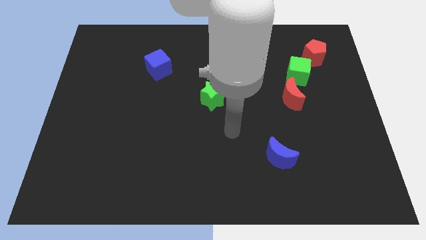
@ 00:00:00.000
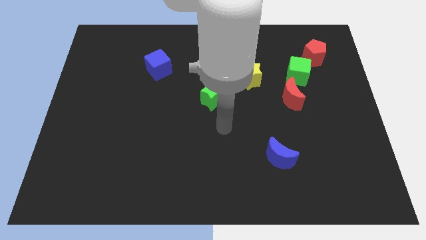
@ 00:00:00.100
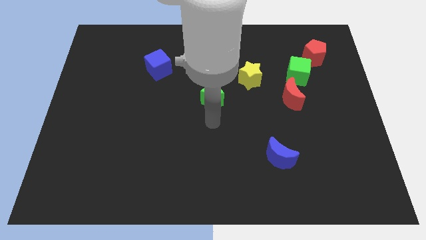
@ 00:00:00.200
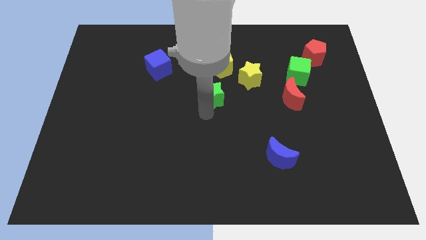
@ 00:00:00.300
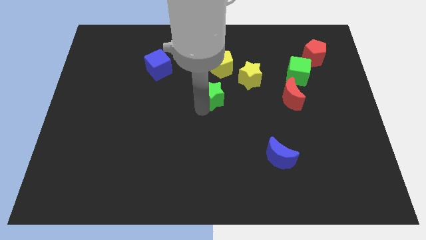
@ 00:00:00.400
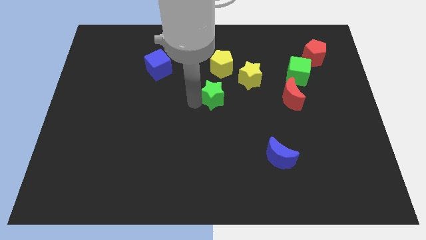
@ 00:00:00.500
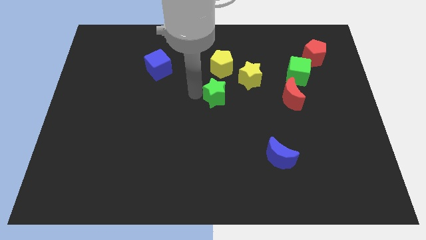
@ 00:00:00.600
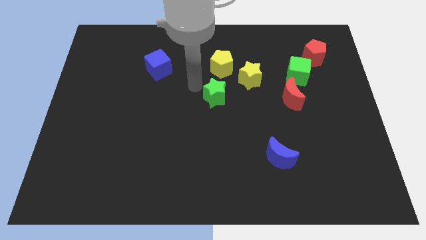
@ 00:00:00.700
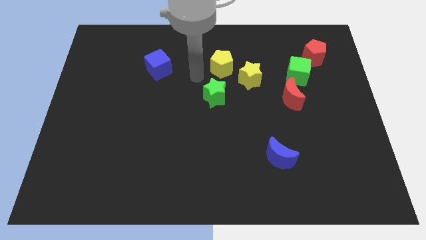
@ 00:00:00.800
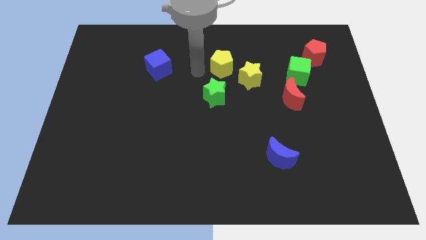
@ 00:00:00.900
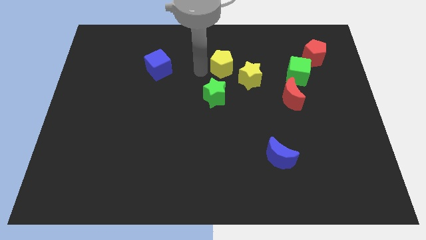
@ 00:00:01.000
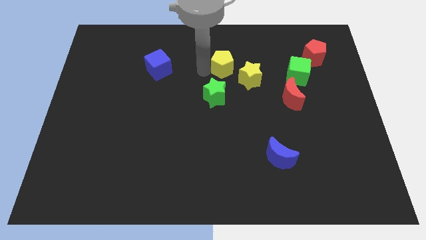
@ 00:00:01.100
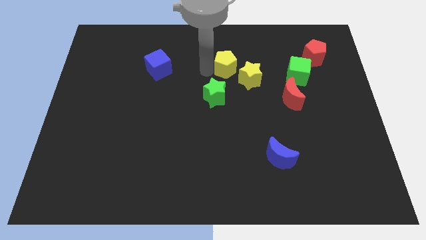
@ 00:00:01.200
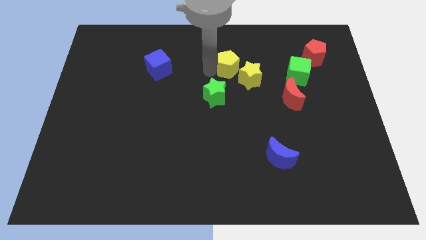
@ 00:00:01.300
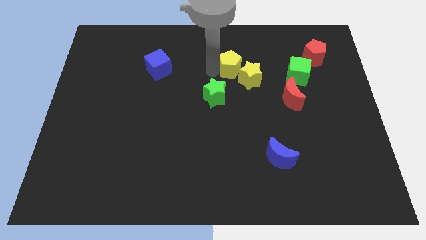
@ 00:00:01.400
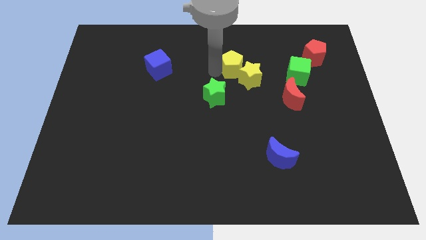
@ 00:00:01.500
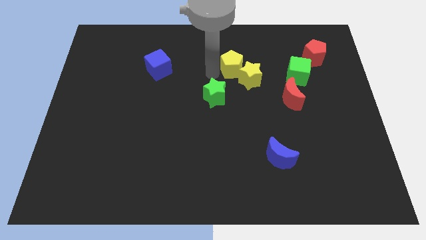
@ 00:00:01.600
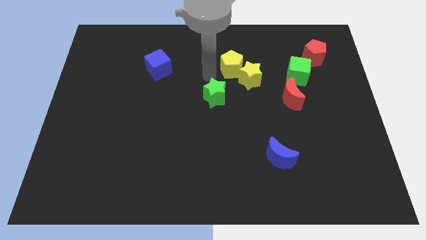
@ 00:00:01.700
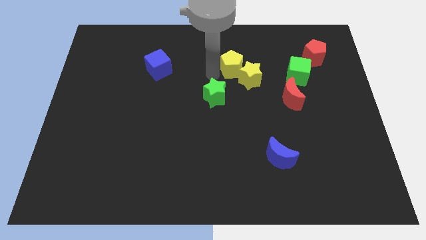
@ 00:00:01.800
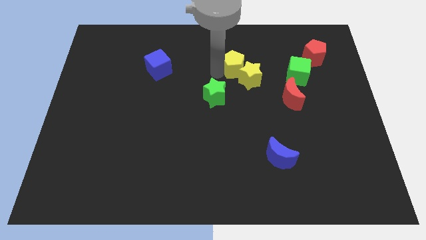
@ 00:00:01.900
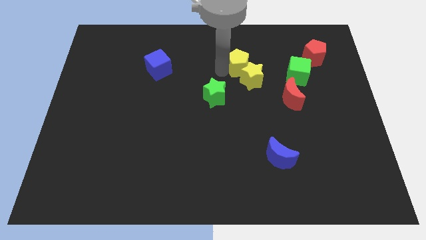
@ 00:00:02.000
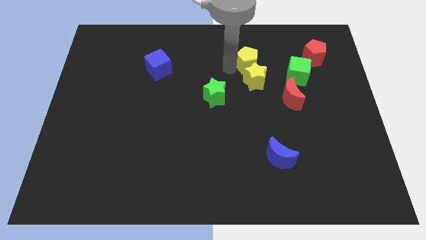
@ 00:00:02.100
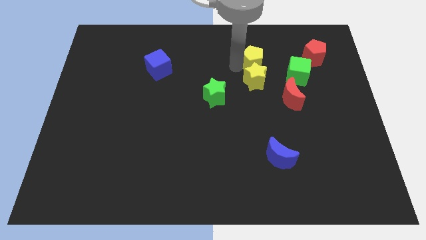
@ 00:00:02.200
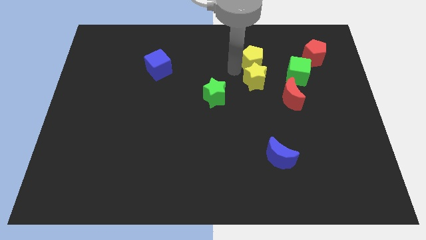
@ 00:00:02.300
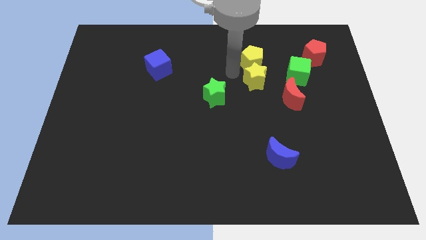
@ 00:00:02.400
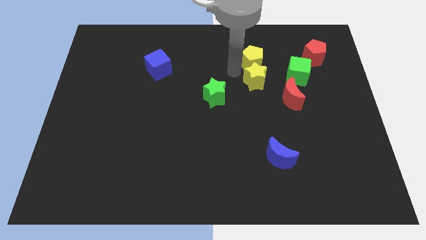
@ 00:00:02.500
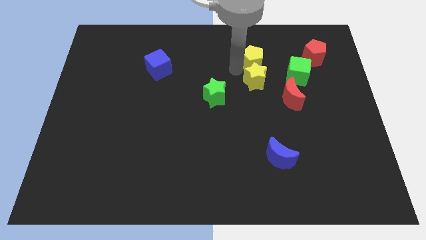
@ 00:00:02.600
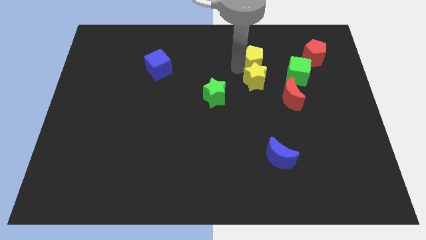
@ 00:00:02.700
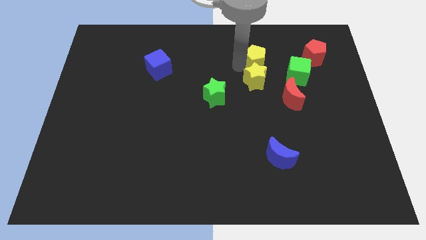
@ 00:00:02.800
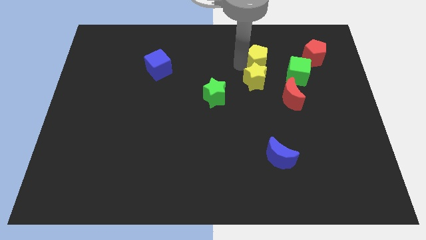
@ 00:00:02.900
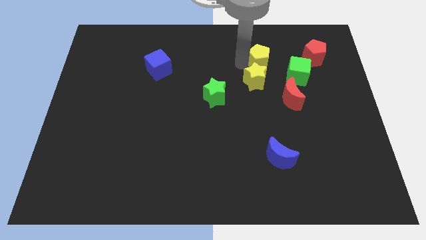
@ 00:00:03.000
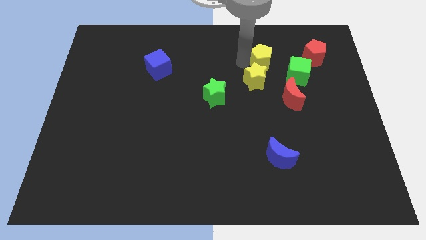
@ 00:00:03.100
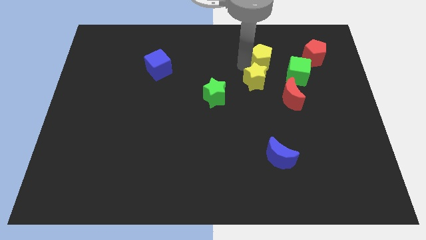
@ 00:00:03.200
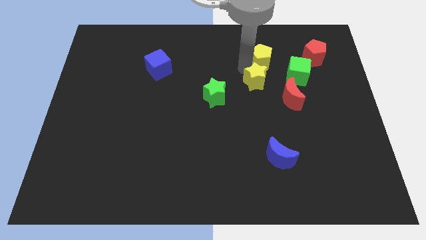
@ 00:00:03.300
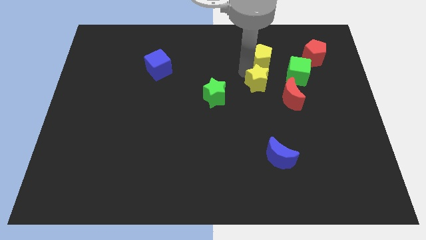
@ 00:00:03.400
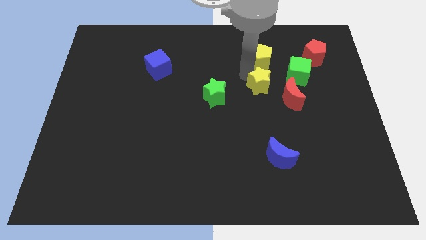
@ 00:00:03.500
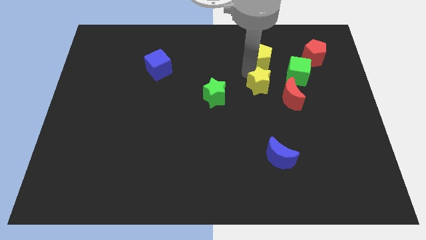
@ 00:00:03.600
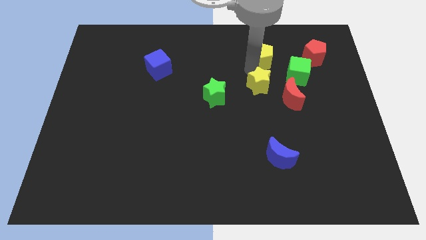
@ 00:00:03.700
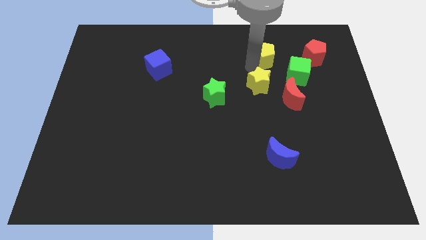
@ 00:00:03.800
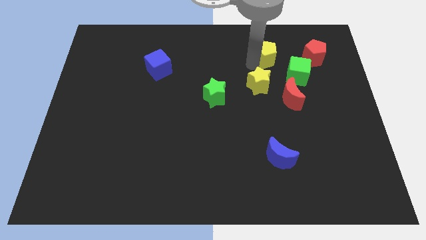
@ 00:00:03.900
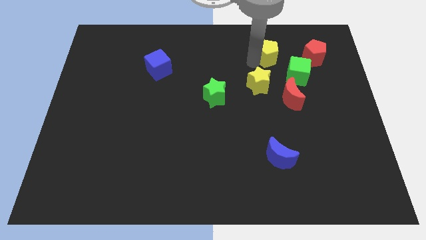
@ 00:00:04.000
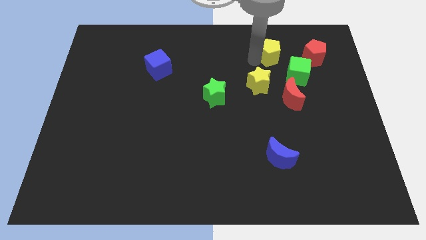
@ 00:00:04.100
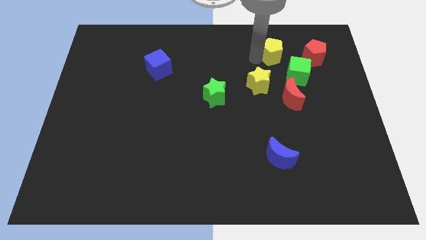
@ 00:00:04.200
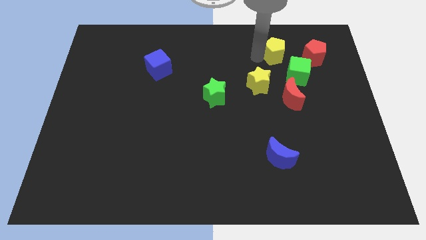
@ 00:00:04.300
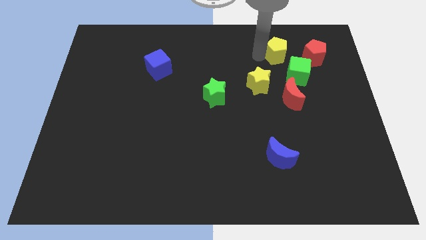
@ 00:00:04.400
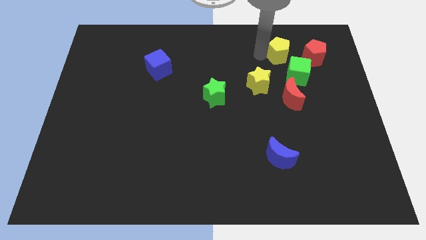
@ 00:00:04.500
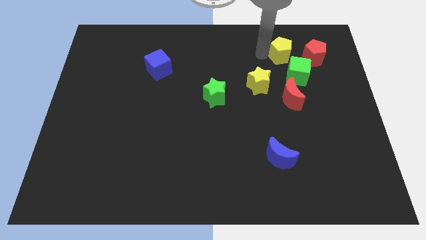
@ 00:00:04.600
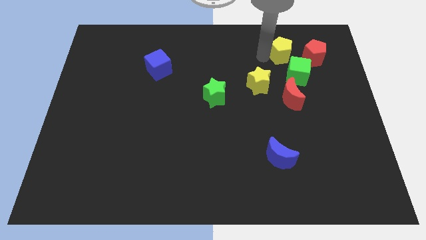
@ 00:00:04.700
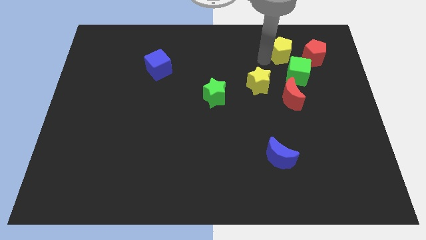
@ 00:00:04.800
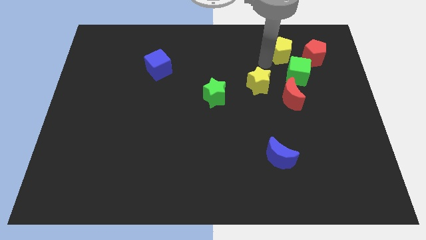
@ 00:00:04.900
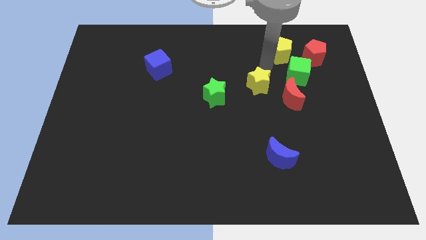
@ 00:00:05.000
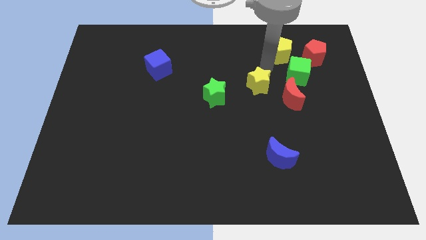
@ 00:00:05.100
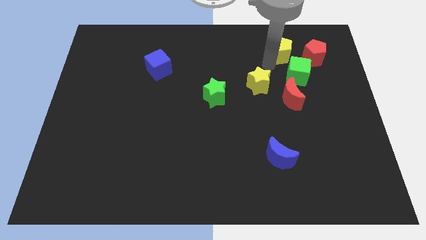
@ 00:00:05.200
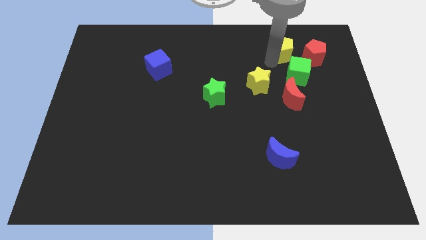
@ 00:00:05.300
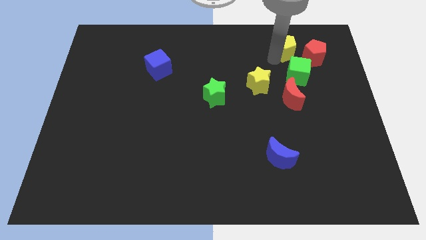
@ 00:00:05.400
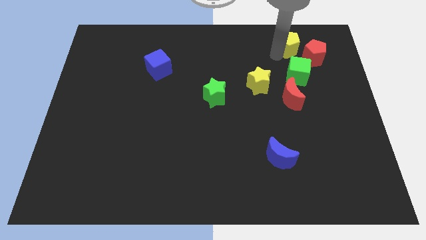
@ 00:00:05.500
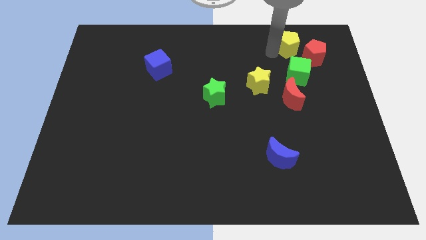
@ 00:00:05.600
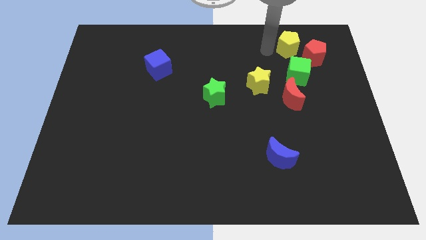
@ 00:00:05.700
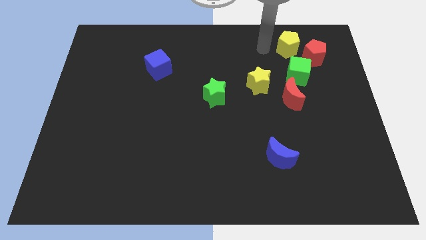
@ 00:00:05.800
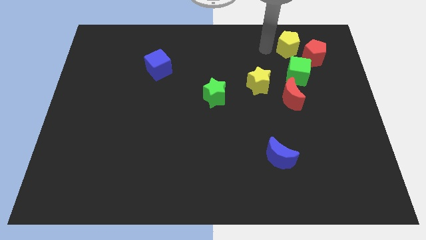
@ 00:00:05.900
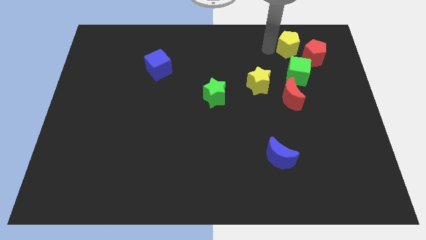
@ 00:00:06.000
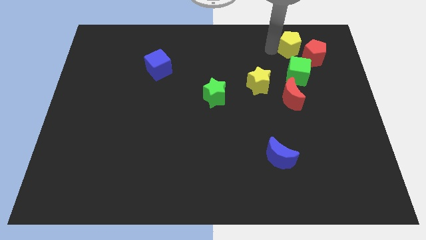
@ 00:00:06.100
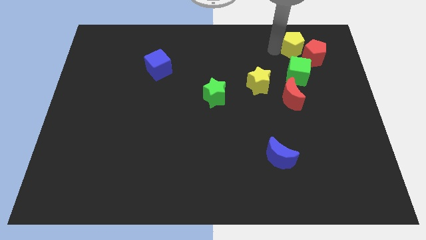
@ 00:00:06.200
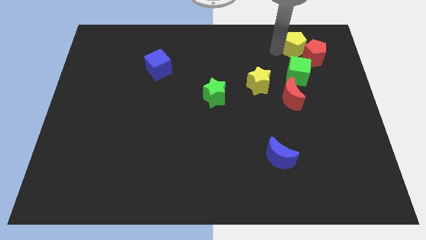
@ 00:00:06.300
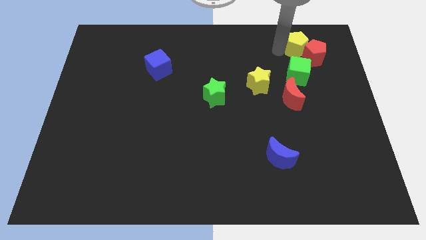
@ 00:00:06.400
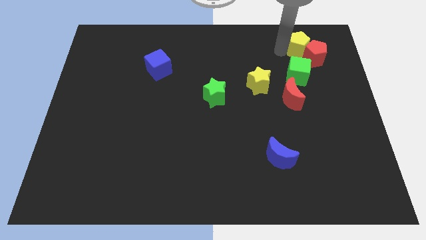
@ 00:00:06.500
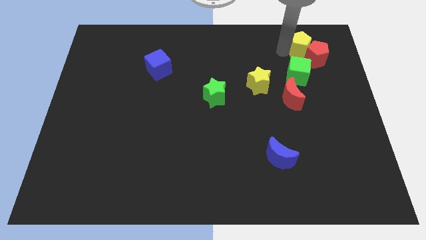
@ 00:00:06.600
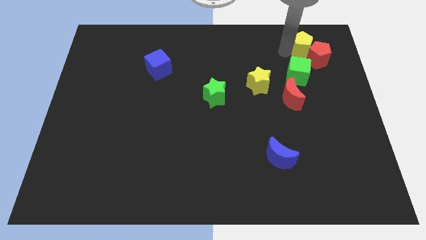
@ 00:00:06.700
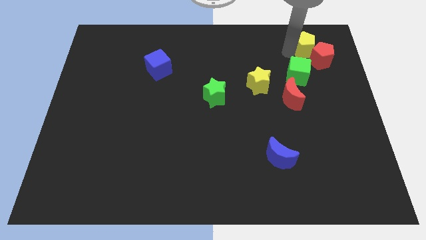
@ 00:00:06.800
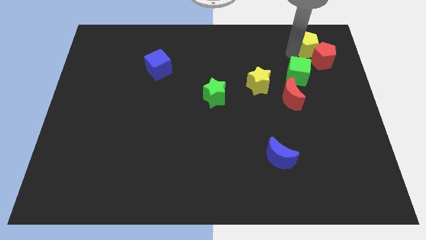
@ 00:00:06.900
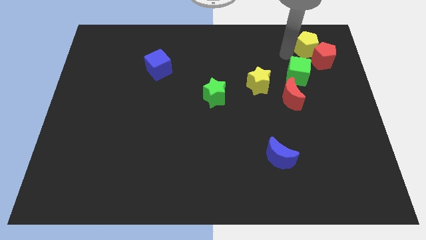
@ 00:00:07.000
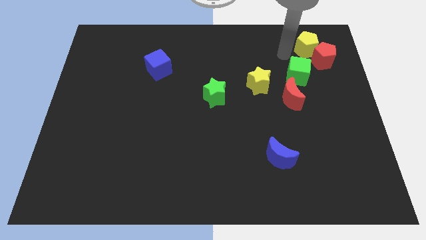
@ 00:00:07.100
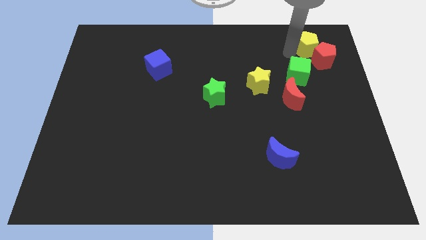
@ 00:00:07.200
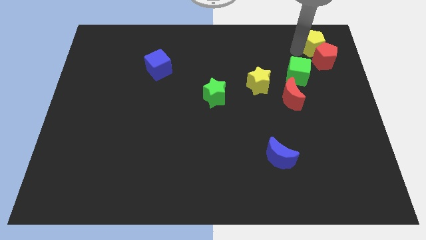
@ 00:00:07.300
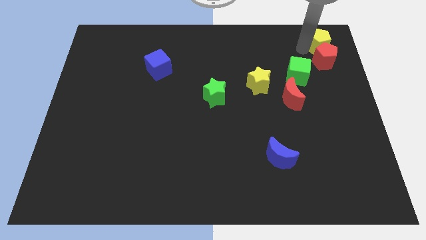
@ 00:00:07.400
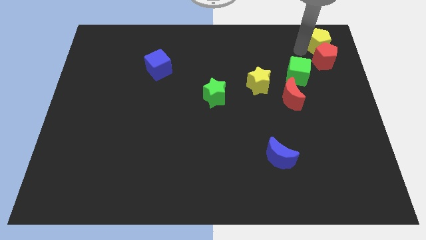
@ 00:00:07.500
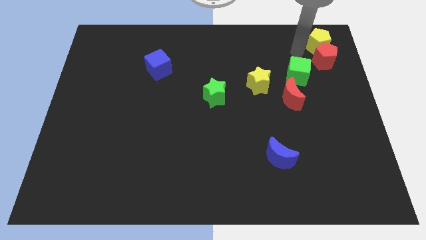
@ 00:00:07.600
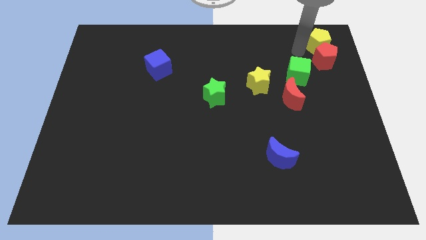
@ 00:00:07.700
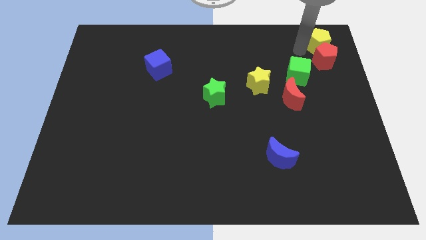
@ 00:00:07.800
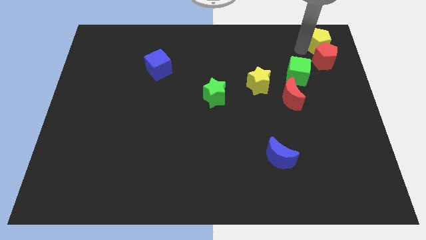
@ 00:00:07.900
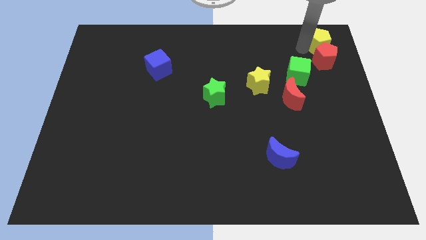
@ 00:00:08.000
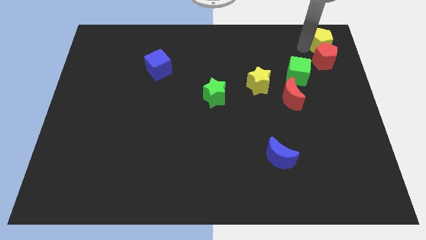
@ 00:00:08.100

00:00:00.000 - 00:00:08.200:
slide the yellow pentagon to the top right
